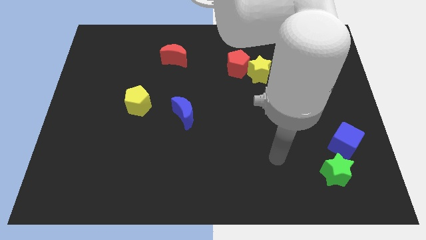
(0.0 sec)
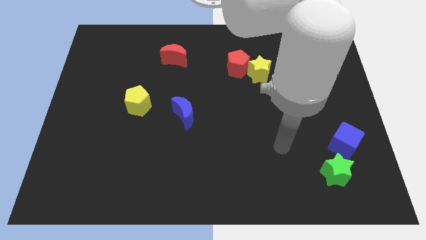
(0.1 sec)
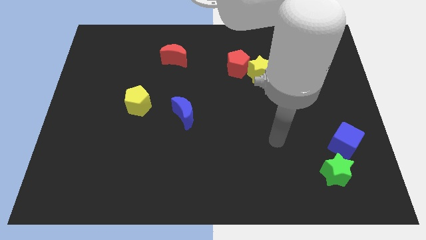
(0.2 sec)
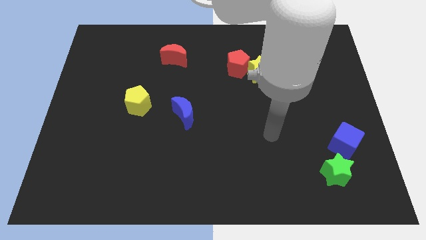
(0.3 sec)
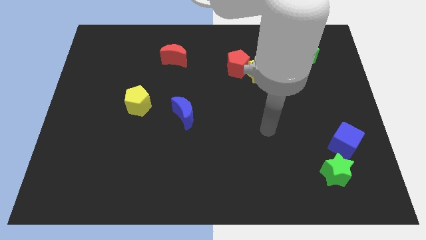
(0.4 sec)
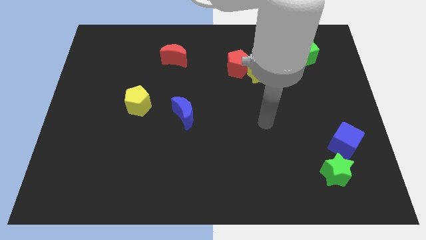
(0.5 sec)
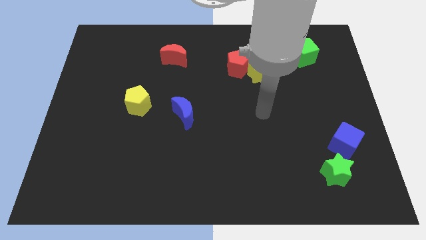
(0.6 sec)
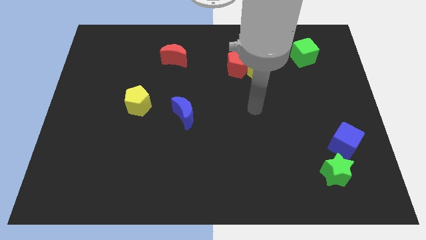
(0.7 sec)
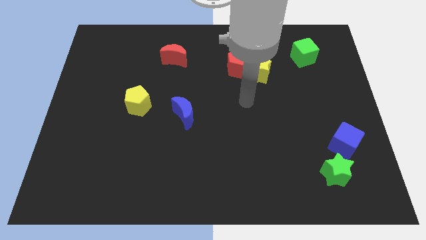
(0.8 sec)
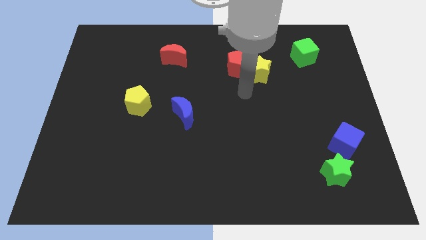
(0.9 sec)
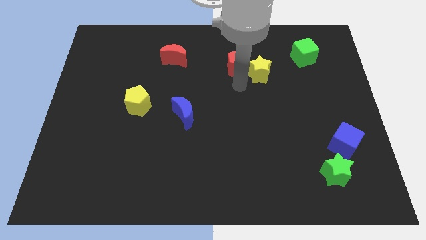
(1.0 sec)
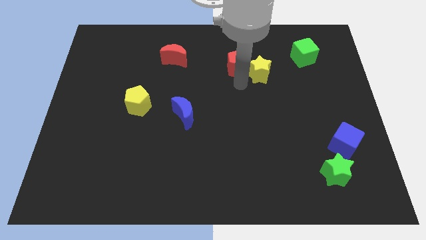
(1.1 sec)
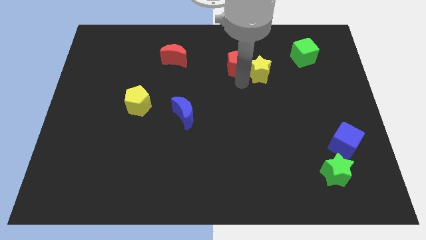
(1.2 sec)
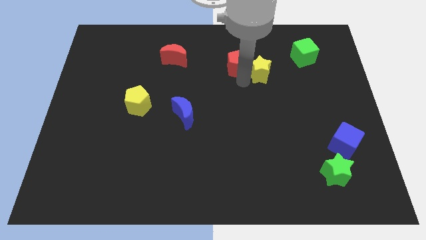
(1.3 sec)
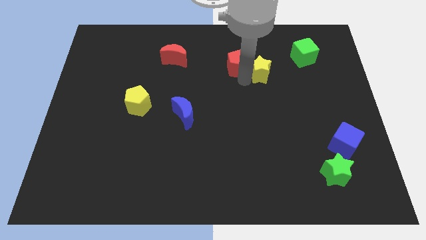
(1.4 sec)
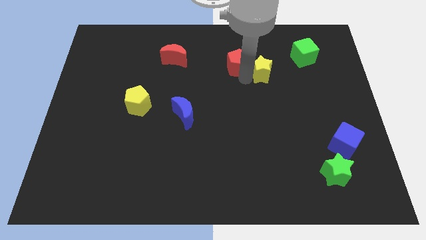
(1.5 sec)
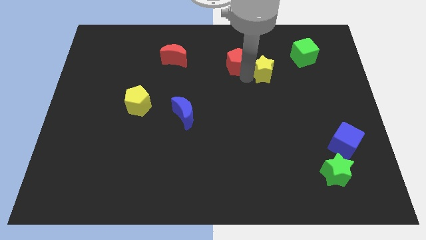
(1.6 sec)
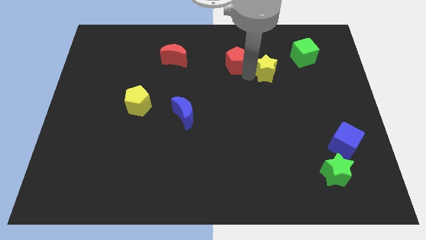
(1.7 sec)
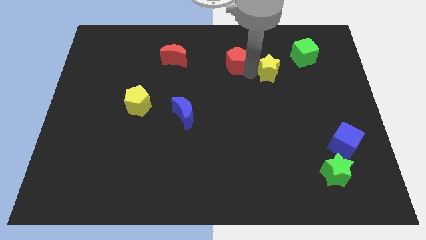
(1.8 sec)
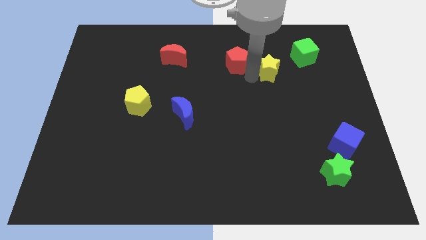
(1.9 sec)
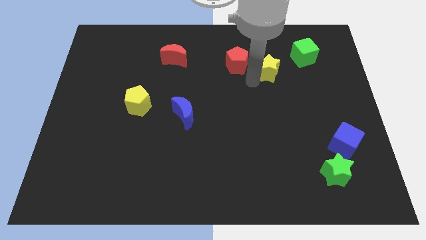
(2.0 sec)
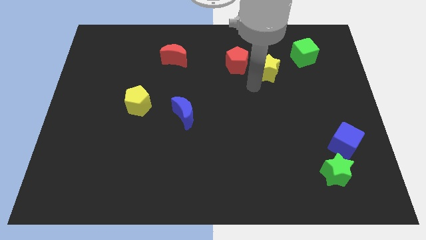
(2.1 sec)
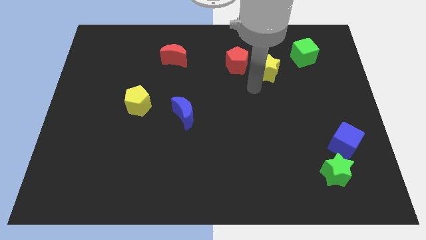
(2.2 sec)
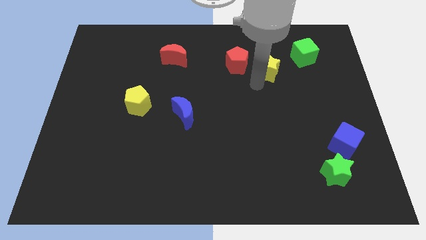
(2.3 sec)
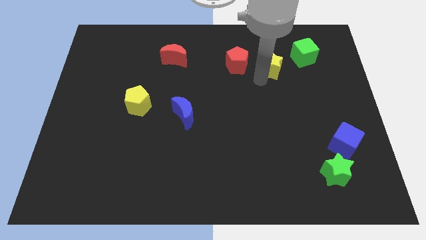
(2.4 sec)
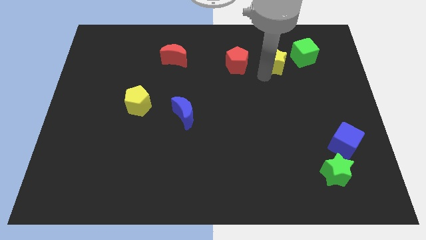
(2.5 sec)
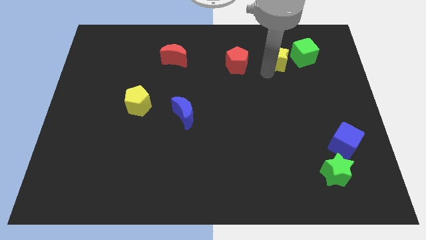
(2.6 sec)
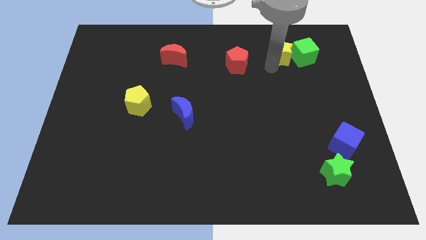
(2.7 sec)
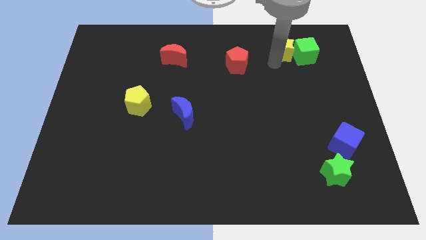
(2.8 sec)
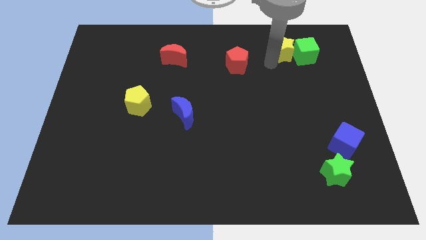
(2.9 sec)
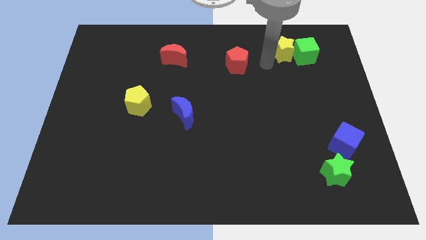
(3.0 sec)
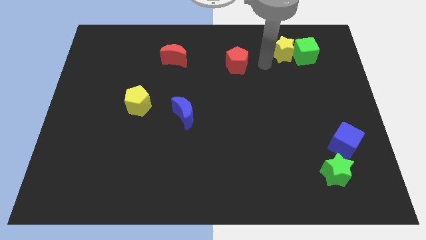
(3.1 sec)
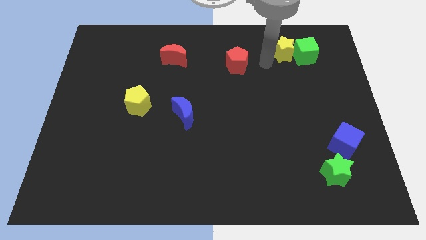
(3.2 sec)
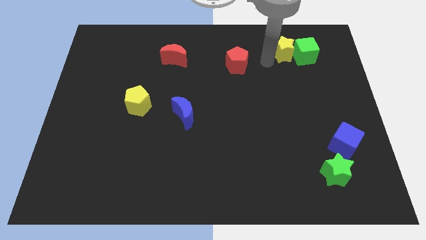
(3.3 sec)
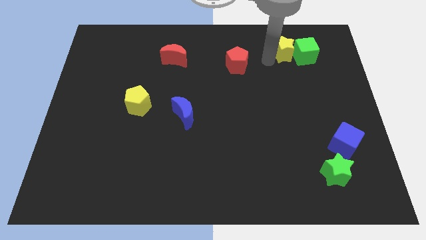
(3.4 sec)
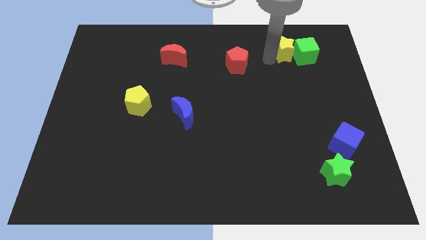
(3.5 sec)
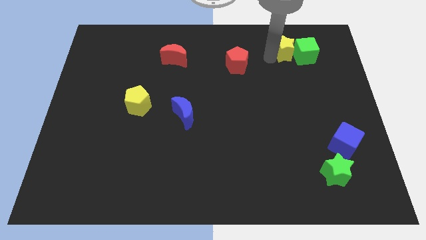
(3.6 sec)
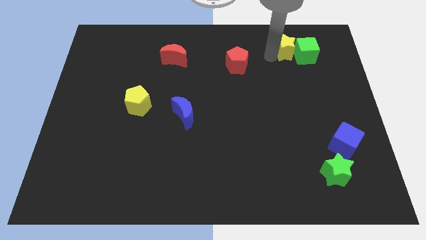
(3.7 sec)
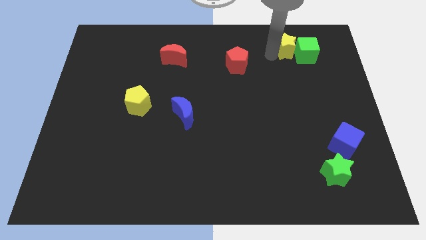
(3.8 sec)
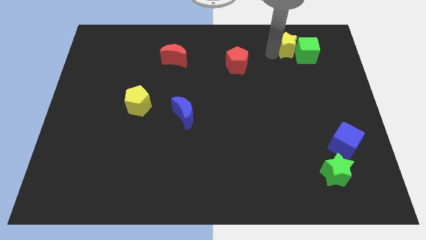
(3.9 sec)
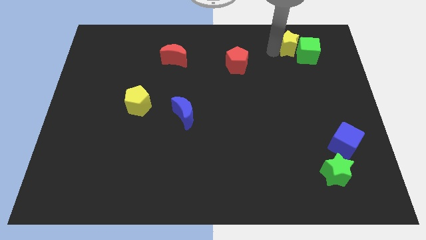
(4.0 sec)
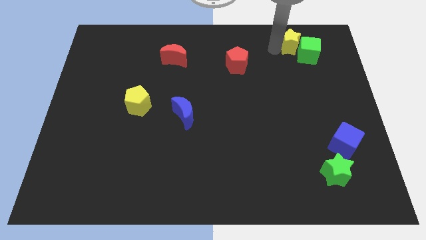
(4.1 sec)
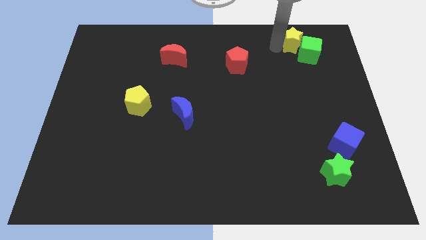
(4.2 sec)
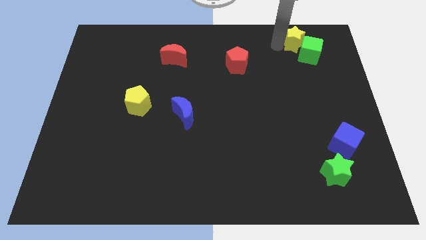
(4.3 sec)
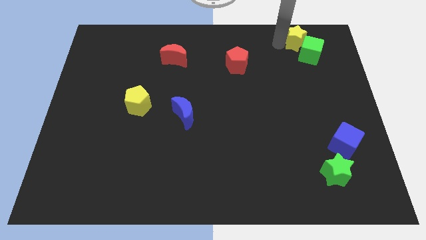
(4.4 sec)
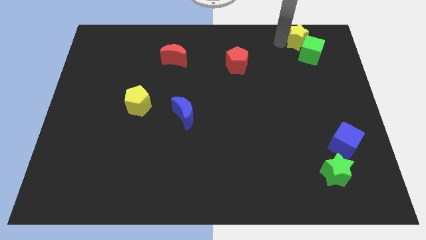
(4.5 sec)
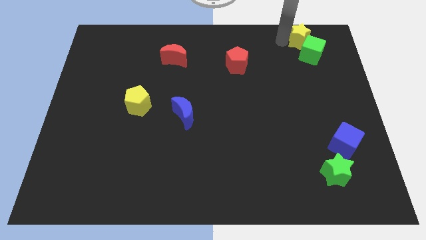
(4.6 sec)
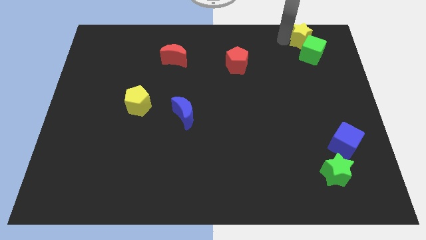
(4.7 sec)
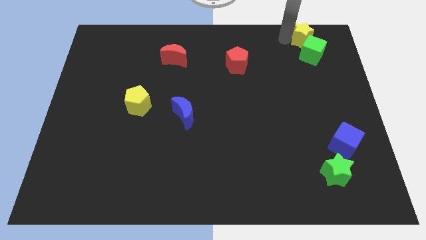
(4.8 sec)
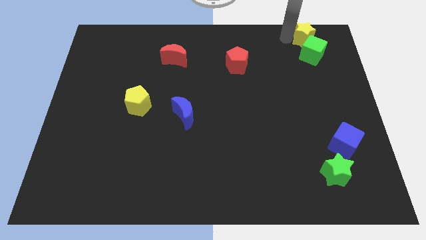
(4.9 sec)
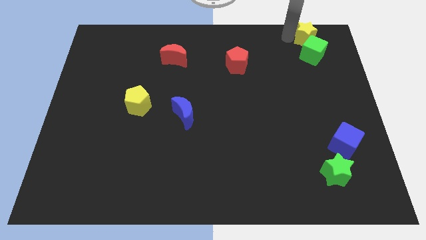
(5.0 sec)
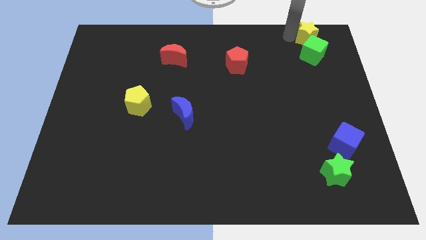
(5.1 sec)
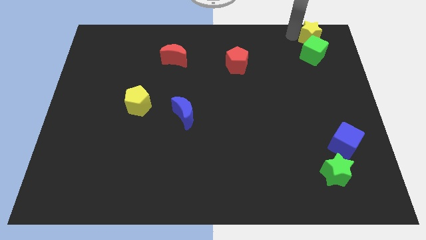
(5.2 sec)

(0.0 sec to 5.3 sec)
move the yellow star to the top right corner
